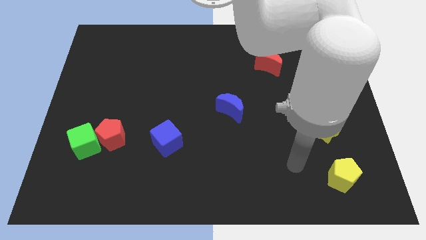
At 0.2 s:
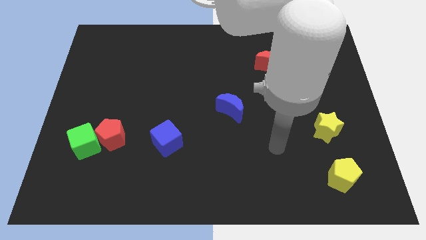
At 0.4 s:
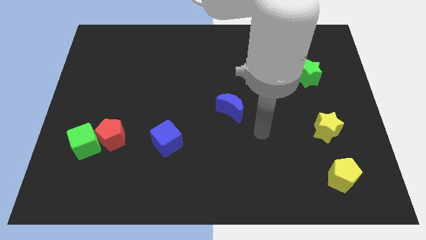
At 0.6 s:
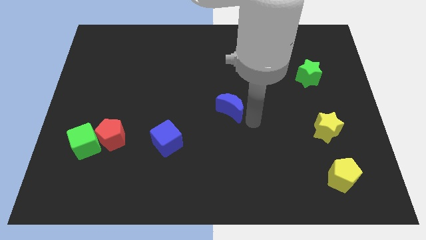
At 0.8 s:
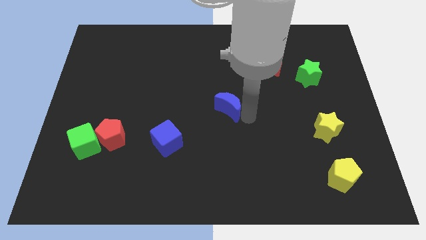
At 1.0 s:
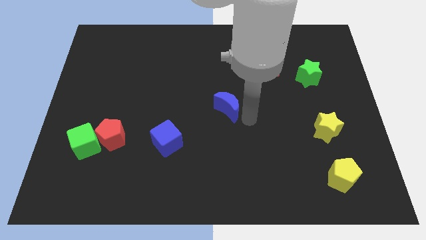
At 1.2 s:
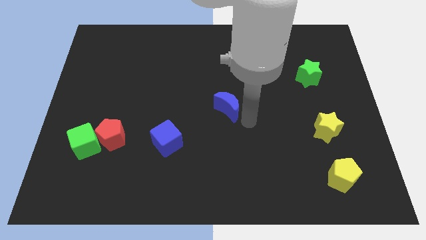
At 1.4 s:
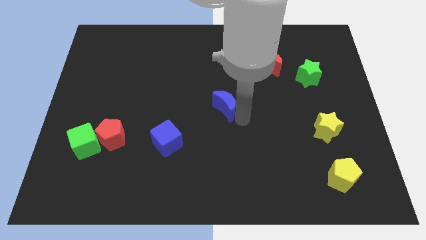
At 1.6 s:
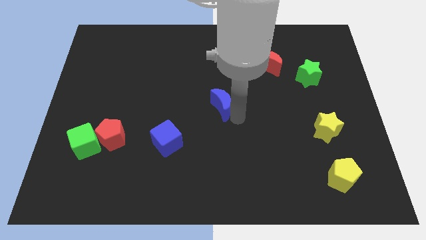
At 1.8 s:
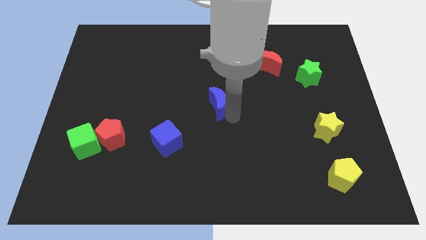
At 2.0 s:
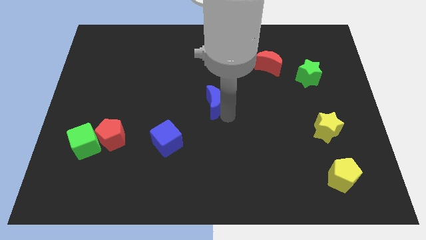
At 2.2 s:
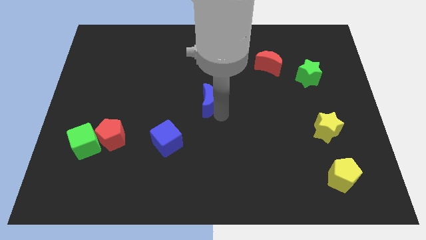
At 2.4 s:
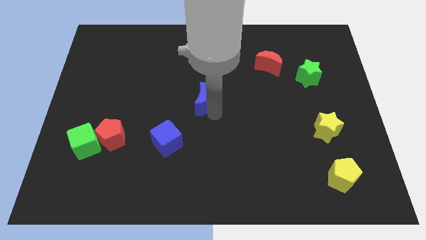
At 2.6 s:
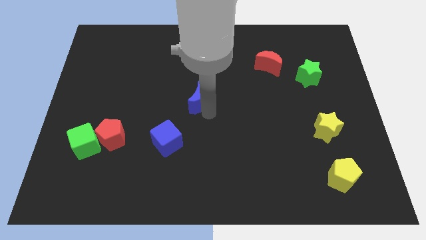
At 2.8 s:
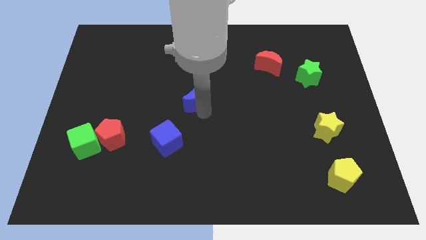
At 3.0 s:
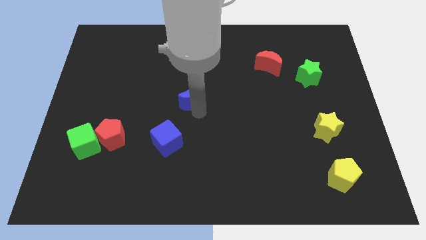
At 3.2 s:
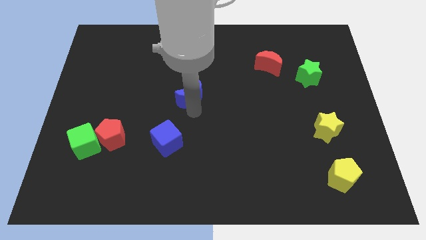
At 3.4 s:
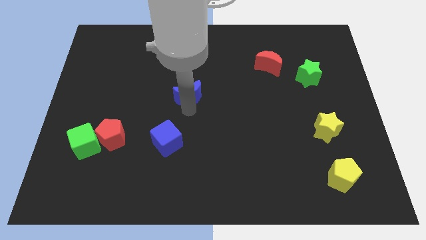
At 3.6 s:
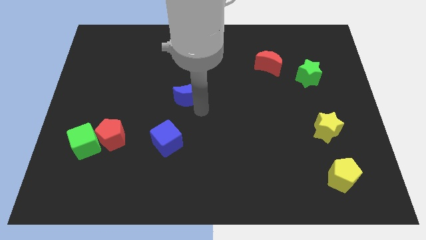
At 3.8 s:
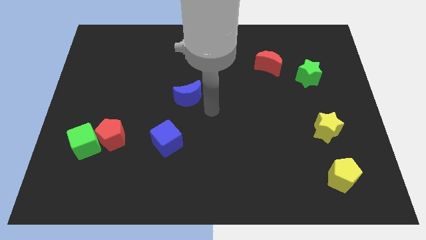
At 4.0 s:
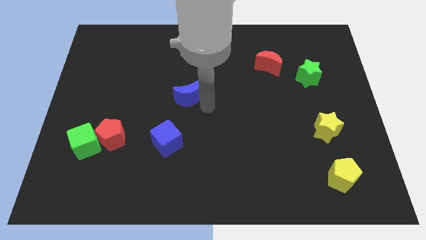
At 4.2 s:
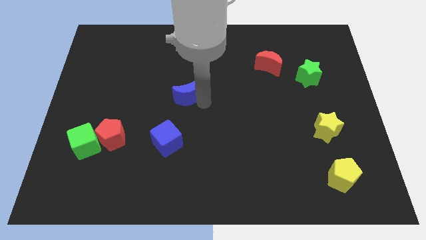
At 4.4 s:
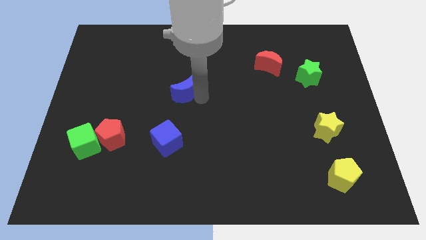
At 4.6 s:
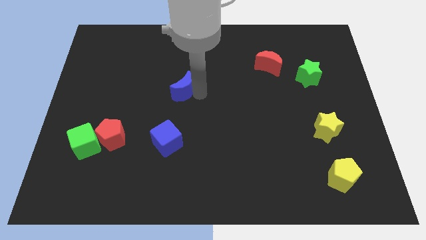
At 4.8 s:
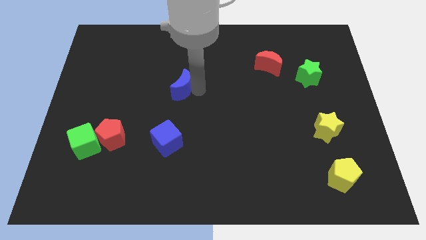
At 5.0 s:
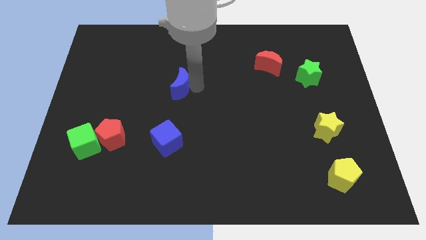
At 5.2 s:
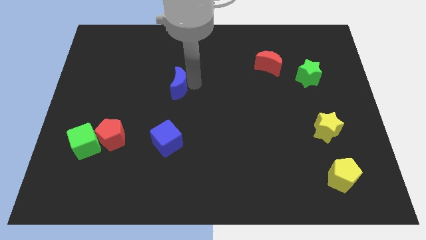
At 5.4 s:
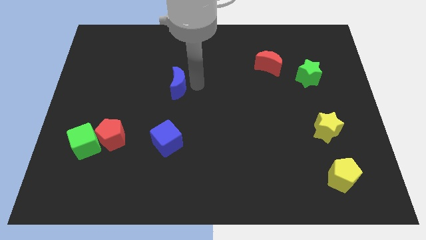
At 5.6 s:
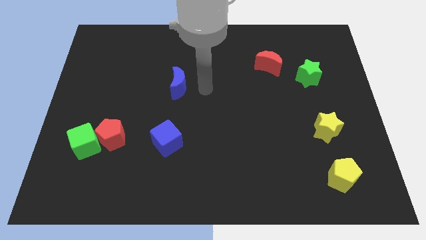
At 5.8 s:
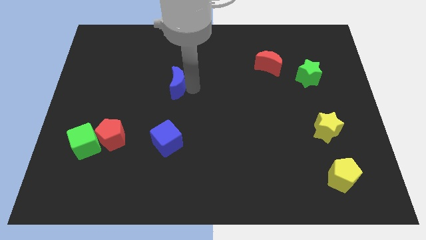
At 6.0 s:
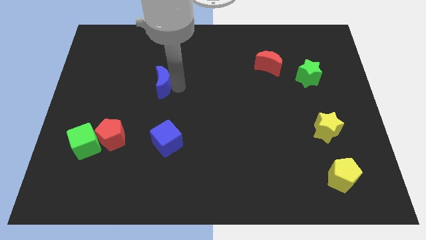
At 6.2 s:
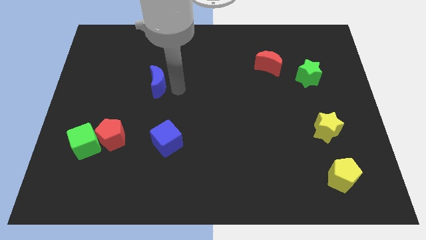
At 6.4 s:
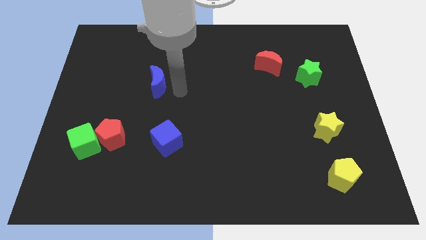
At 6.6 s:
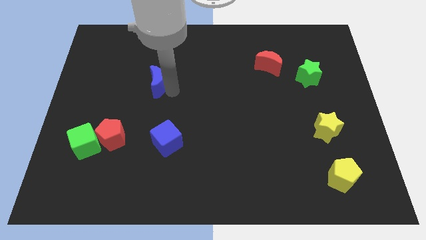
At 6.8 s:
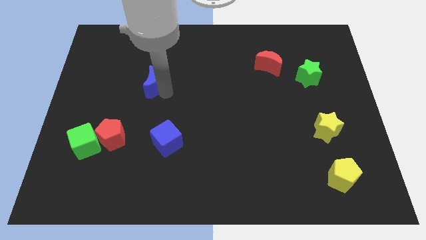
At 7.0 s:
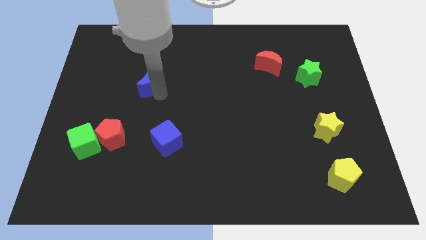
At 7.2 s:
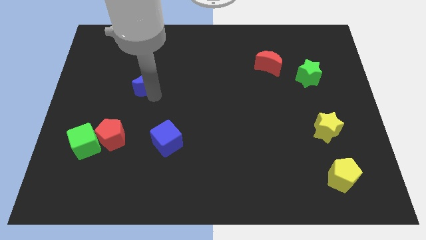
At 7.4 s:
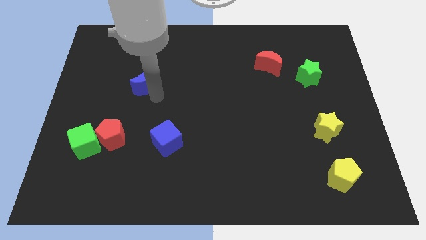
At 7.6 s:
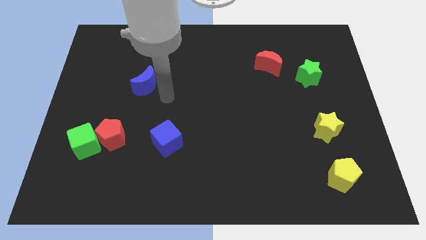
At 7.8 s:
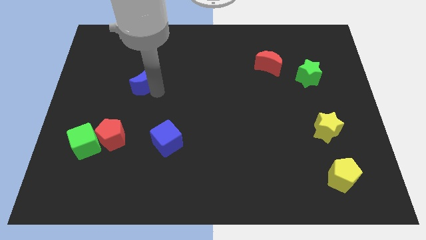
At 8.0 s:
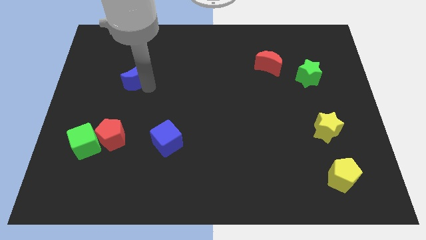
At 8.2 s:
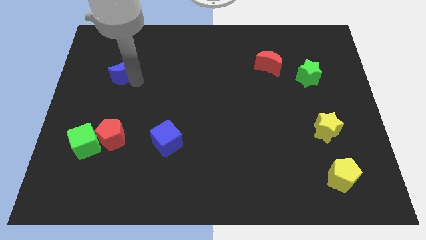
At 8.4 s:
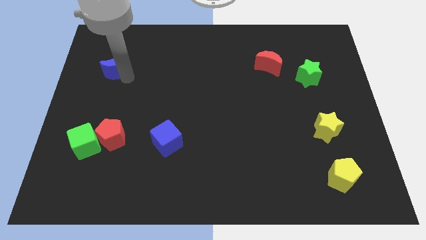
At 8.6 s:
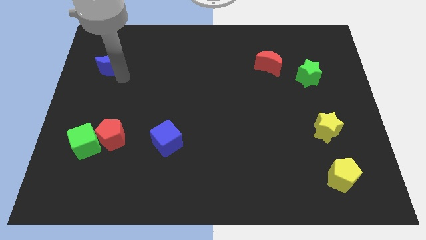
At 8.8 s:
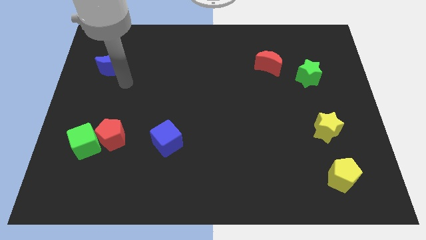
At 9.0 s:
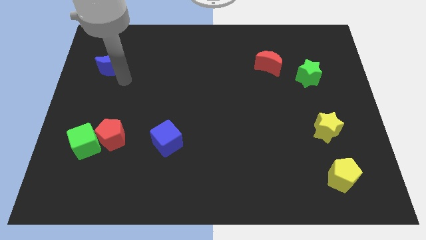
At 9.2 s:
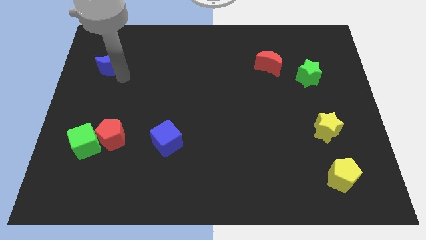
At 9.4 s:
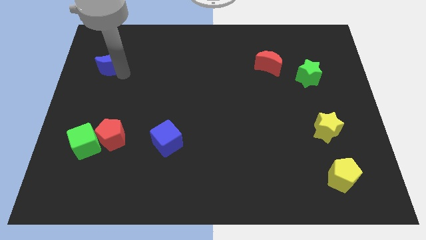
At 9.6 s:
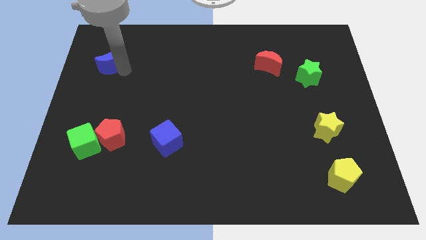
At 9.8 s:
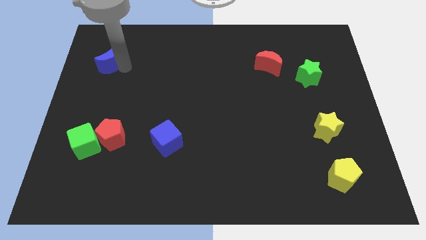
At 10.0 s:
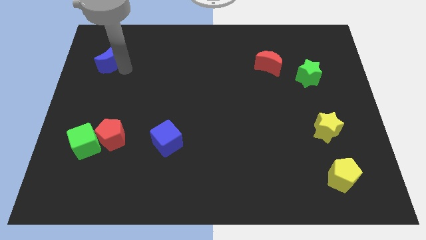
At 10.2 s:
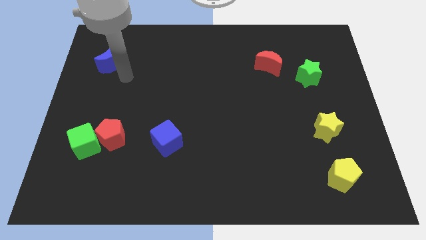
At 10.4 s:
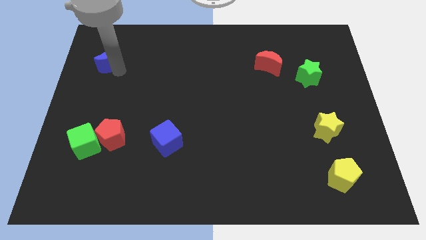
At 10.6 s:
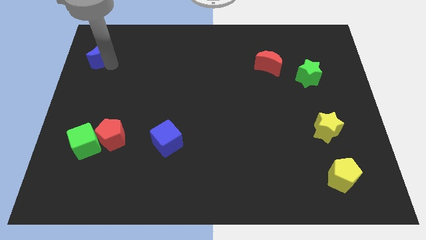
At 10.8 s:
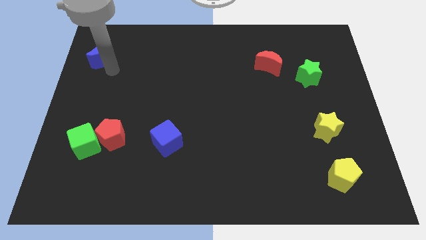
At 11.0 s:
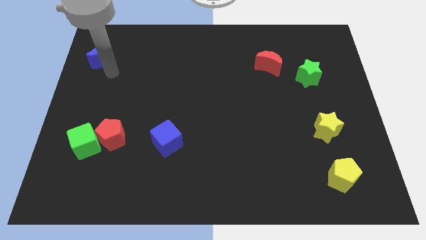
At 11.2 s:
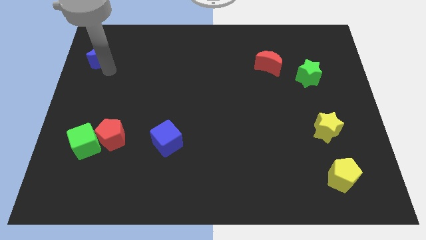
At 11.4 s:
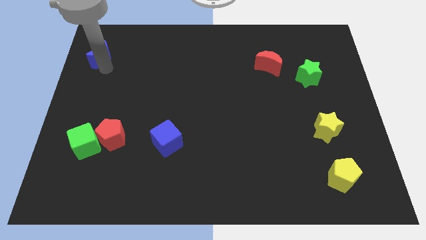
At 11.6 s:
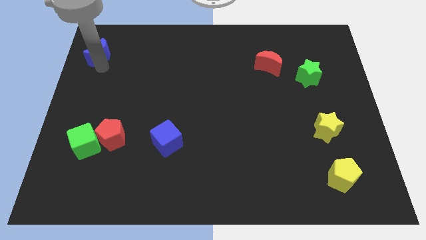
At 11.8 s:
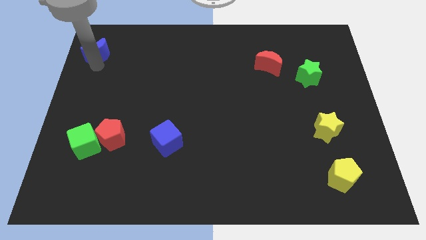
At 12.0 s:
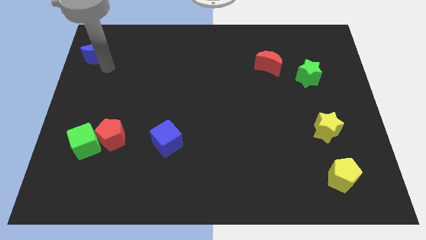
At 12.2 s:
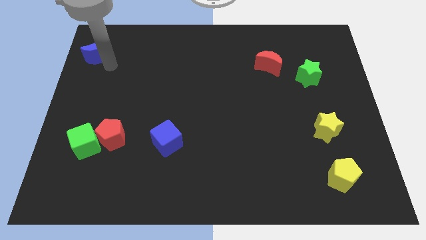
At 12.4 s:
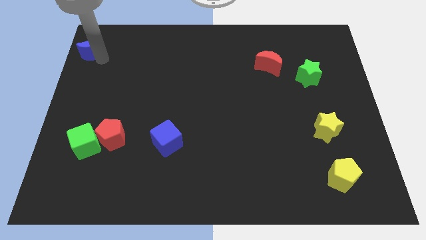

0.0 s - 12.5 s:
slide the blue moon to the top left of the board

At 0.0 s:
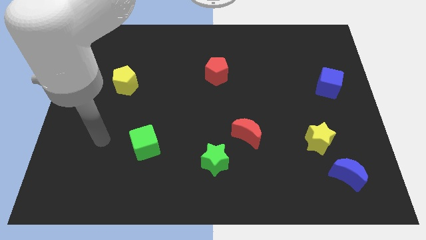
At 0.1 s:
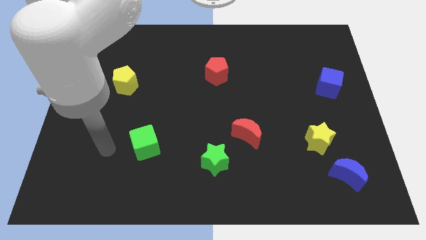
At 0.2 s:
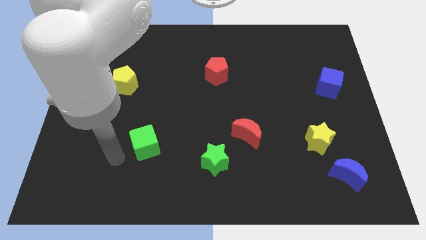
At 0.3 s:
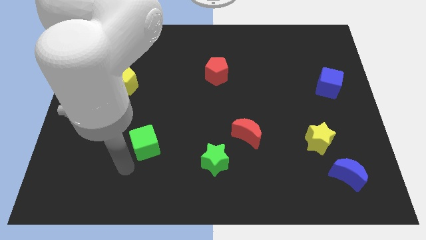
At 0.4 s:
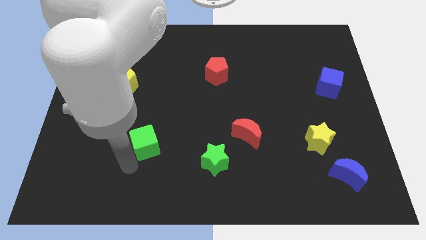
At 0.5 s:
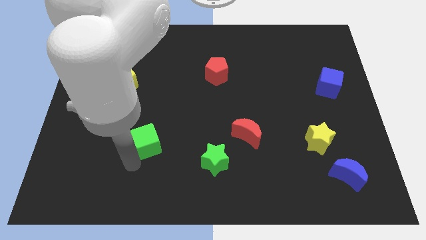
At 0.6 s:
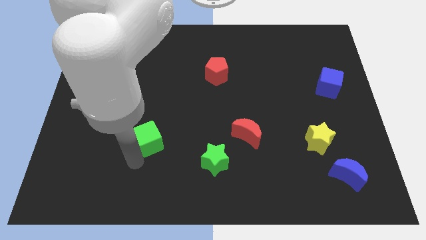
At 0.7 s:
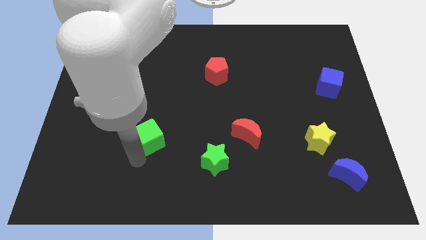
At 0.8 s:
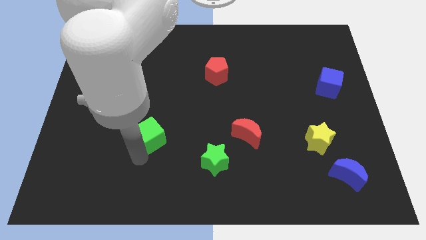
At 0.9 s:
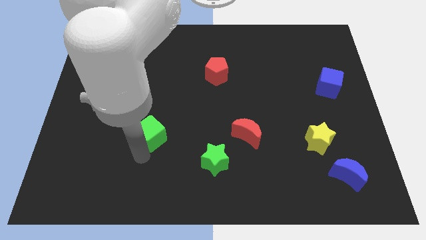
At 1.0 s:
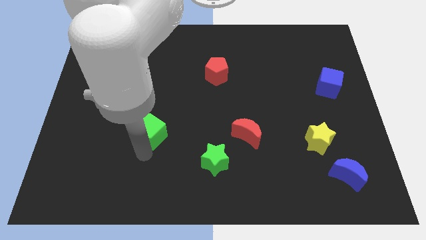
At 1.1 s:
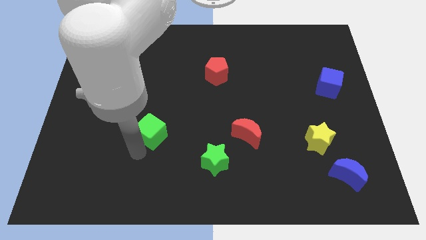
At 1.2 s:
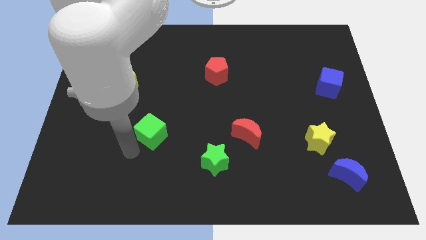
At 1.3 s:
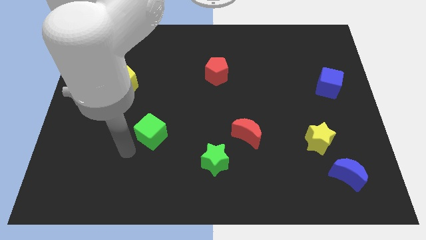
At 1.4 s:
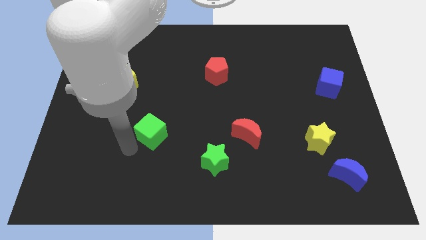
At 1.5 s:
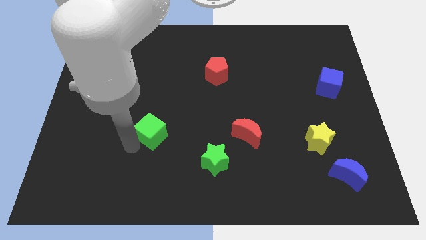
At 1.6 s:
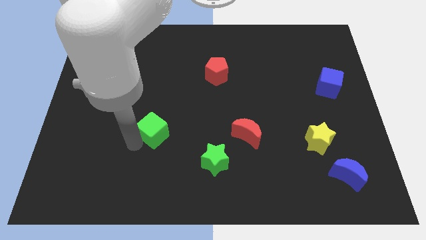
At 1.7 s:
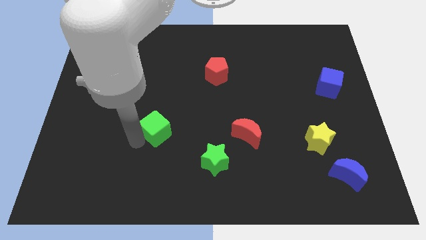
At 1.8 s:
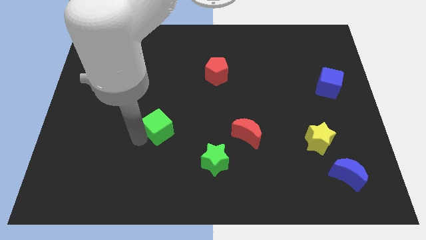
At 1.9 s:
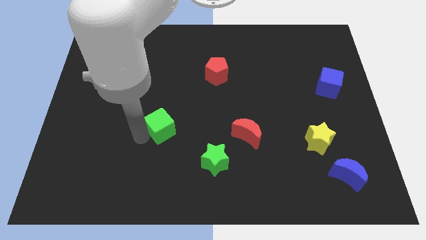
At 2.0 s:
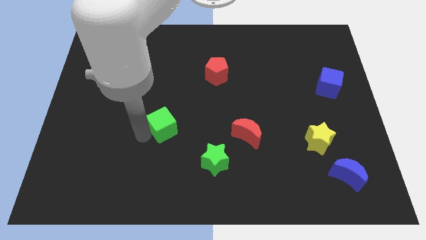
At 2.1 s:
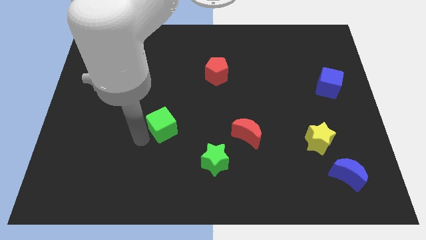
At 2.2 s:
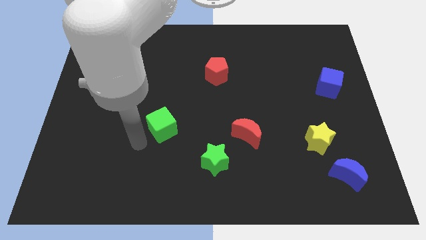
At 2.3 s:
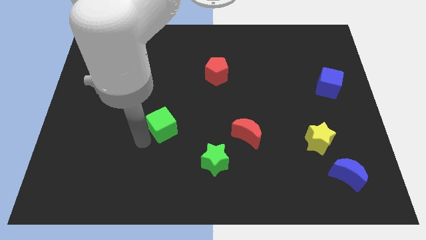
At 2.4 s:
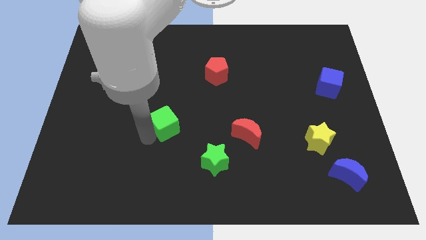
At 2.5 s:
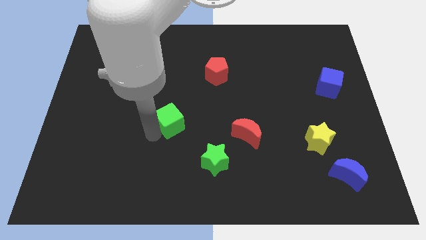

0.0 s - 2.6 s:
push the green cube to the middle of the board
